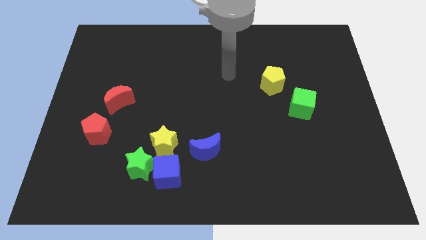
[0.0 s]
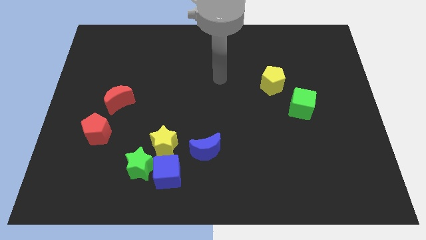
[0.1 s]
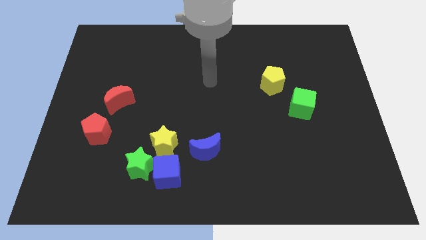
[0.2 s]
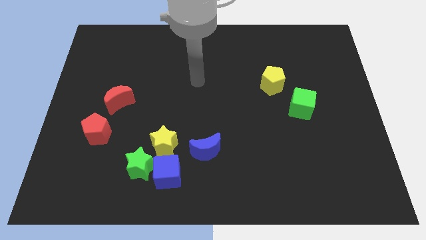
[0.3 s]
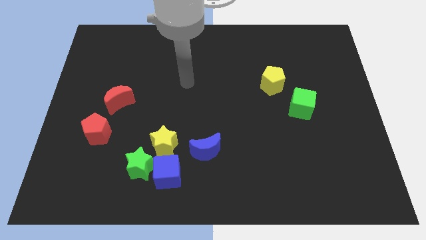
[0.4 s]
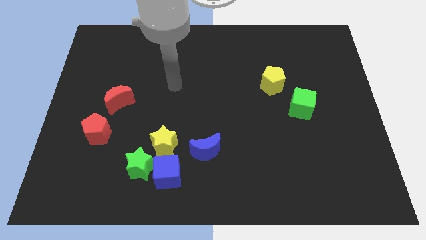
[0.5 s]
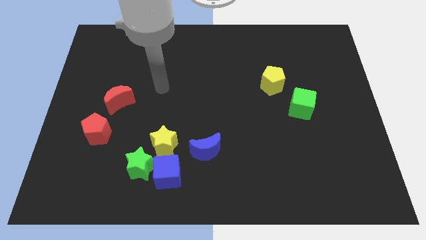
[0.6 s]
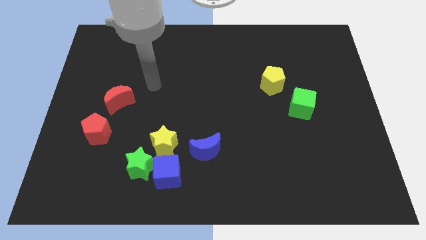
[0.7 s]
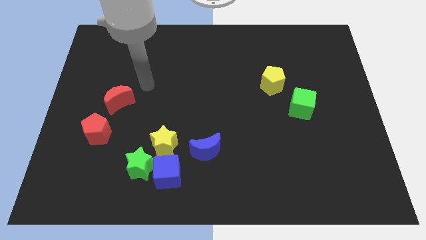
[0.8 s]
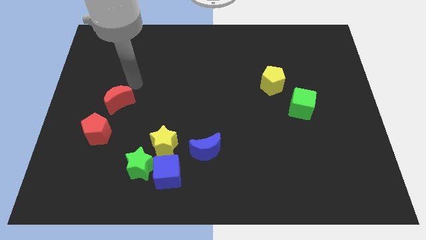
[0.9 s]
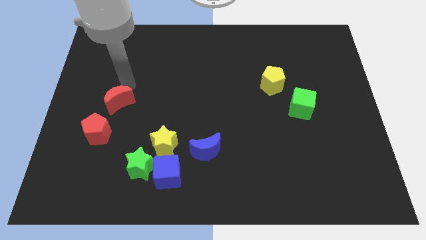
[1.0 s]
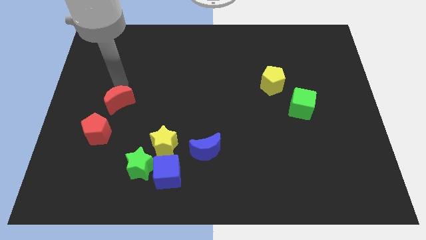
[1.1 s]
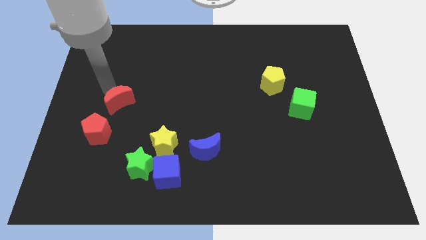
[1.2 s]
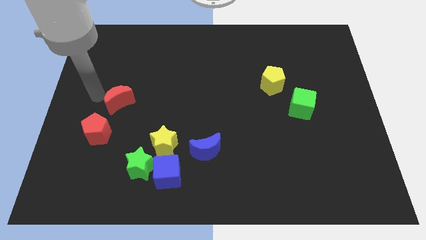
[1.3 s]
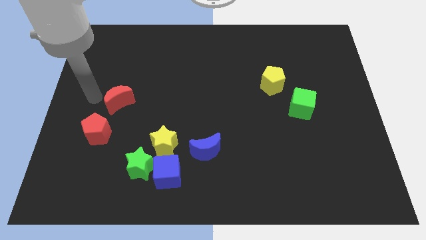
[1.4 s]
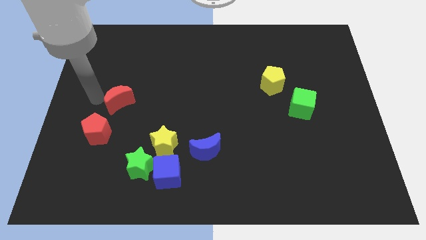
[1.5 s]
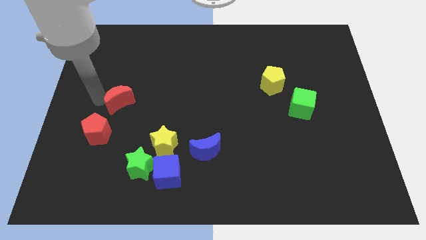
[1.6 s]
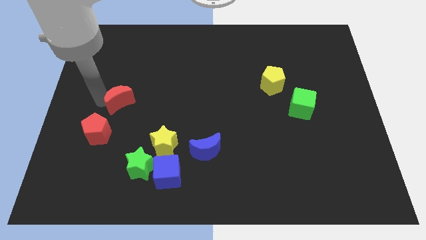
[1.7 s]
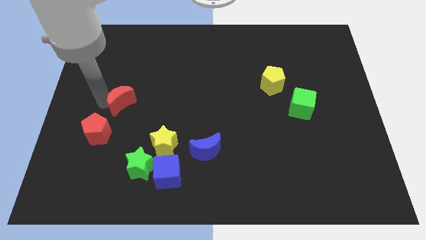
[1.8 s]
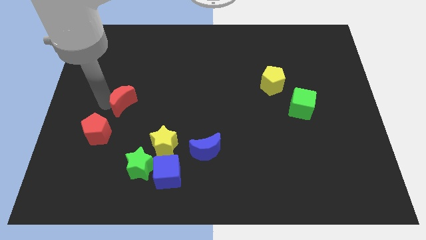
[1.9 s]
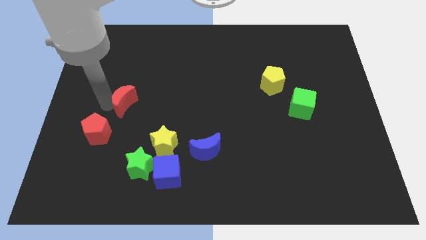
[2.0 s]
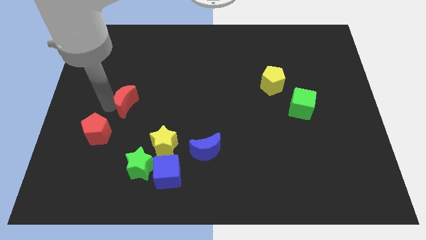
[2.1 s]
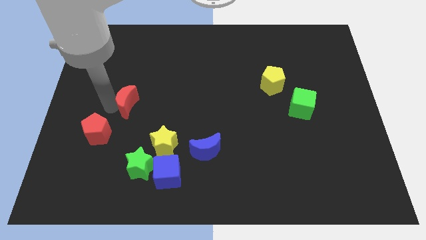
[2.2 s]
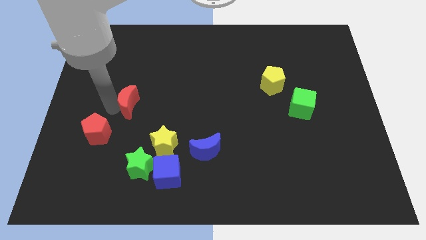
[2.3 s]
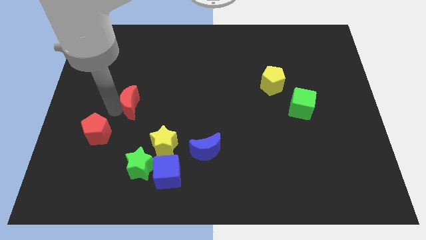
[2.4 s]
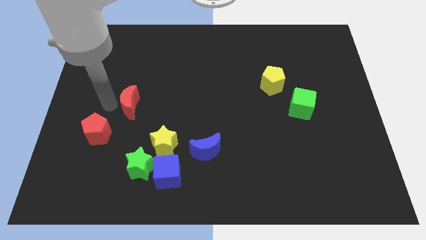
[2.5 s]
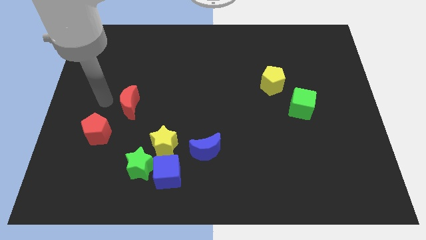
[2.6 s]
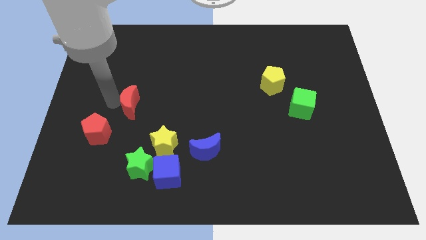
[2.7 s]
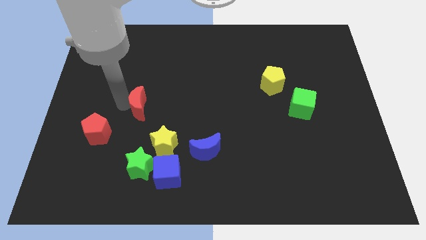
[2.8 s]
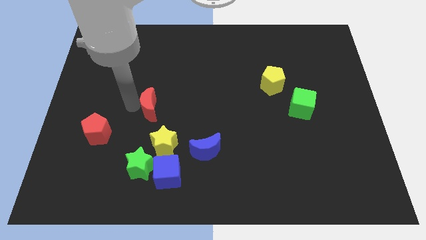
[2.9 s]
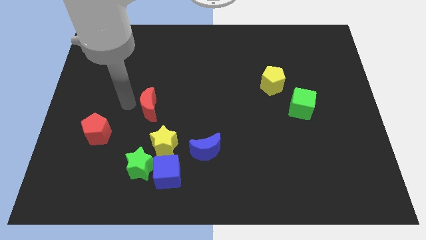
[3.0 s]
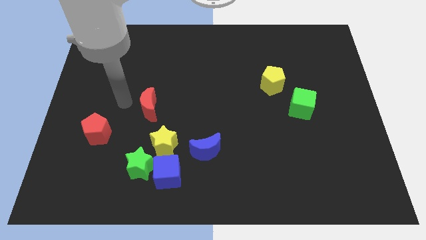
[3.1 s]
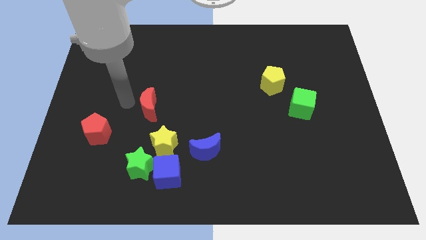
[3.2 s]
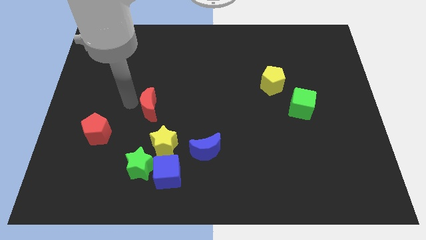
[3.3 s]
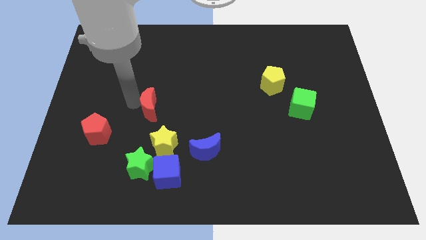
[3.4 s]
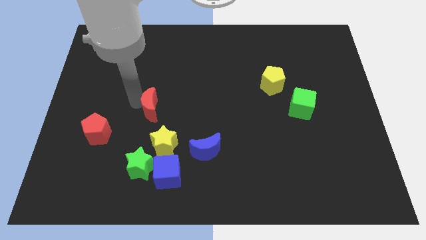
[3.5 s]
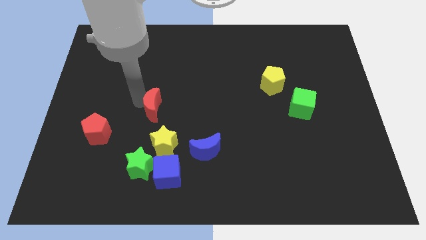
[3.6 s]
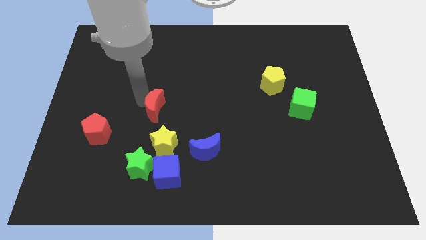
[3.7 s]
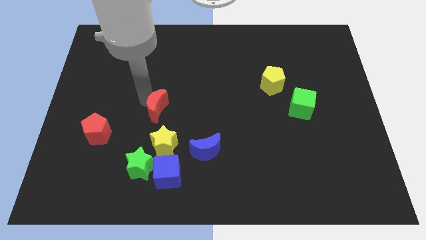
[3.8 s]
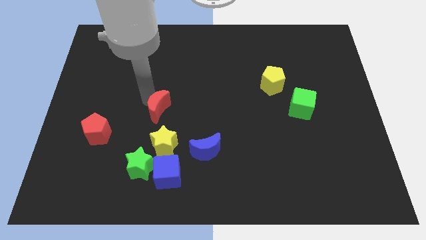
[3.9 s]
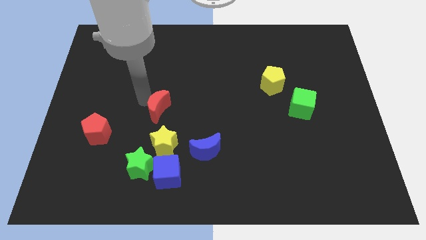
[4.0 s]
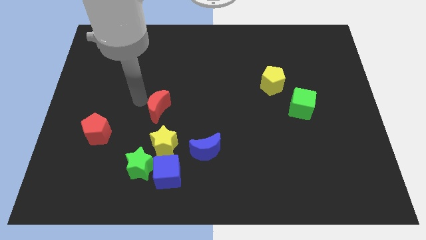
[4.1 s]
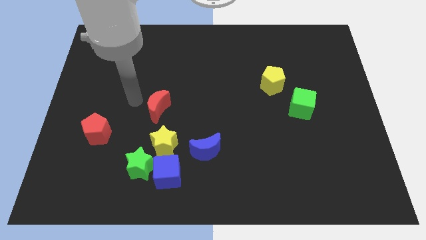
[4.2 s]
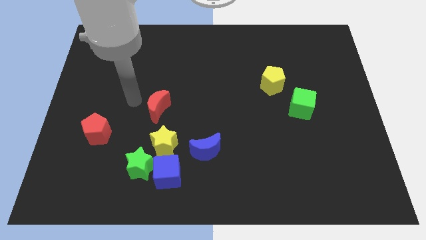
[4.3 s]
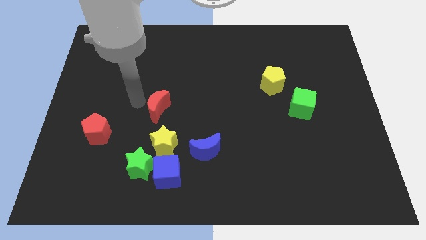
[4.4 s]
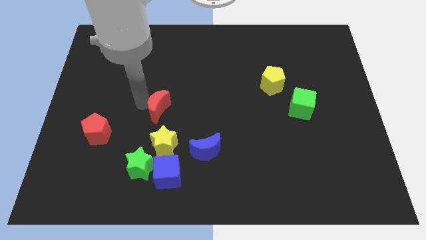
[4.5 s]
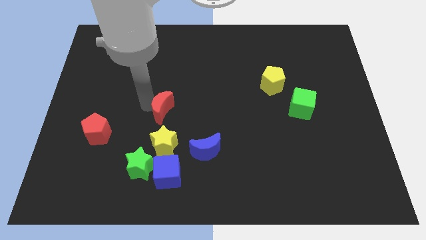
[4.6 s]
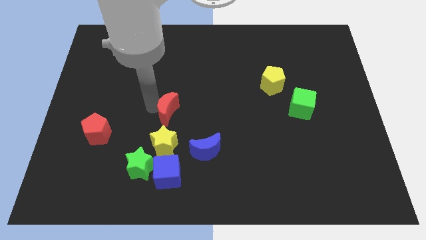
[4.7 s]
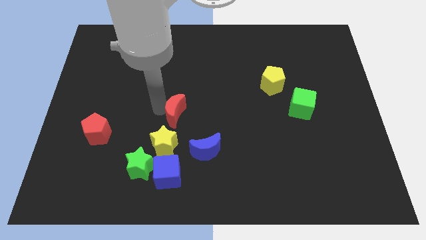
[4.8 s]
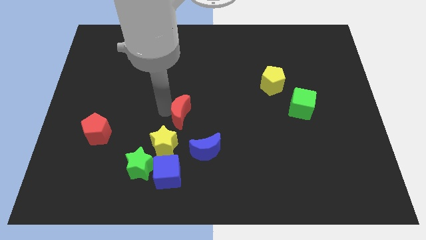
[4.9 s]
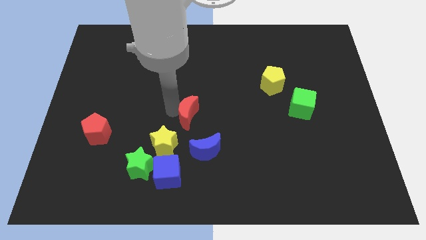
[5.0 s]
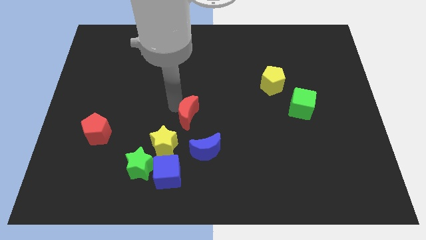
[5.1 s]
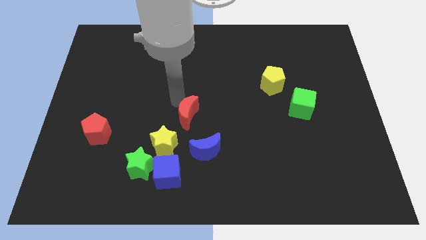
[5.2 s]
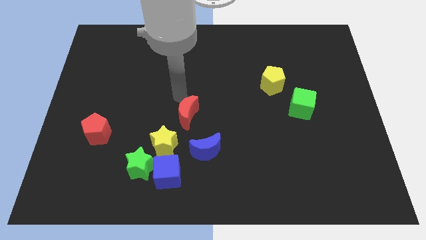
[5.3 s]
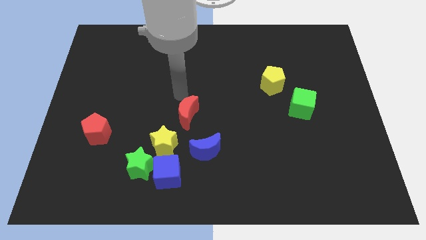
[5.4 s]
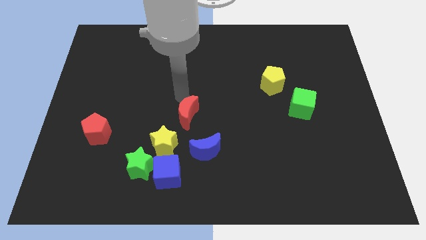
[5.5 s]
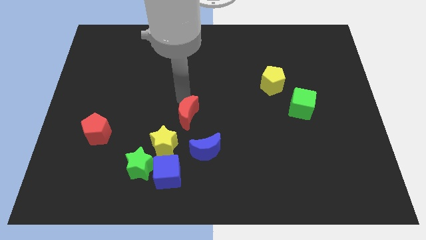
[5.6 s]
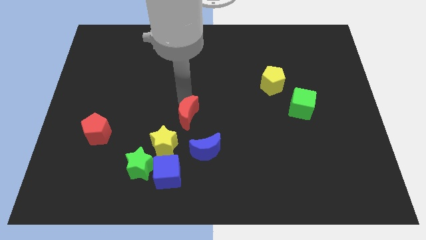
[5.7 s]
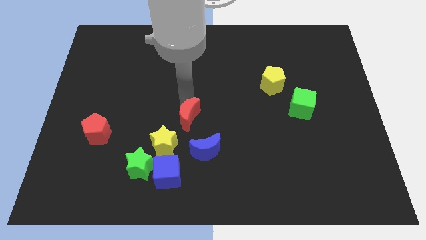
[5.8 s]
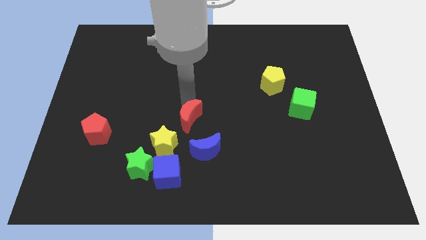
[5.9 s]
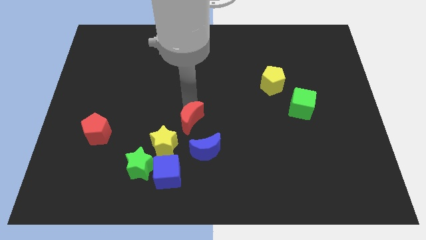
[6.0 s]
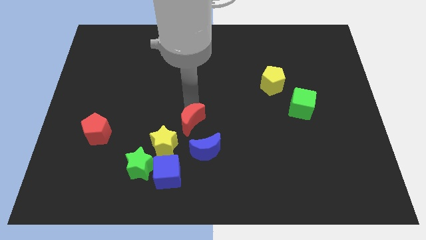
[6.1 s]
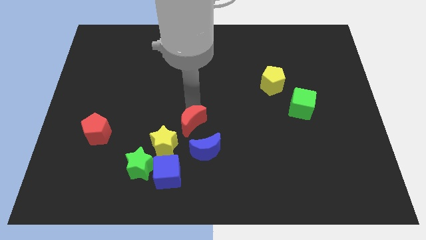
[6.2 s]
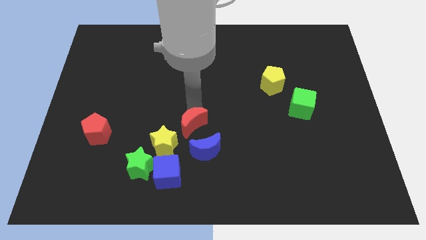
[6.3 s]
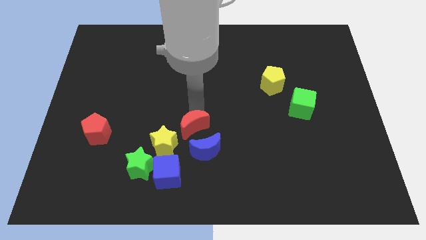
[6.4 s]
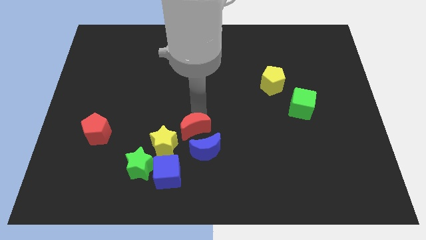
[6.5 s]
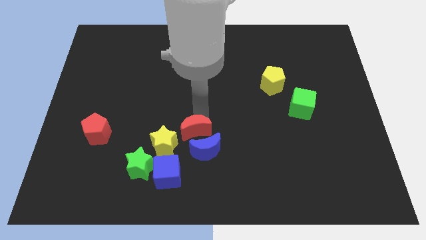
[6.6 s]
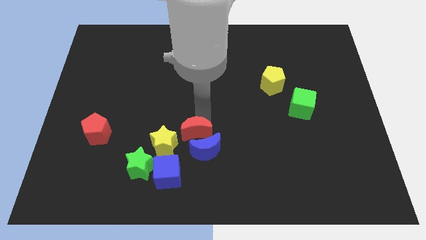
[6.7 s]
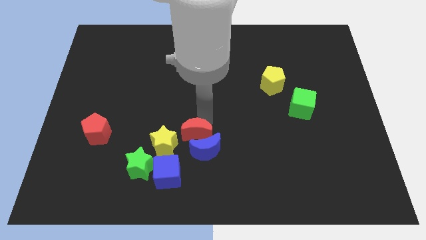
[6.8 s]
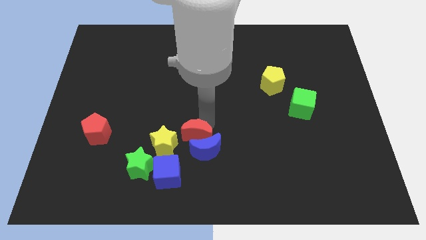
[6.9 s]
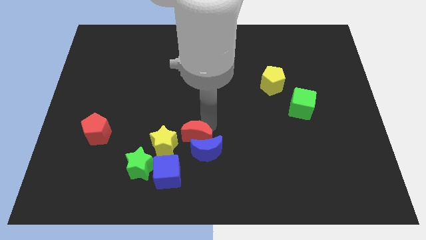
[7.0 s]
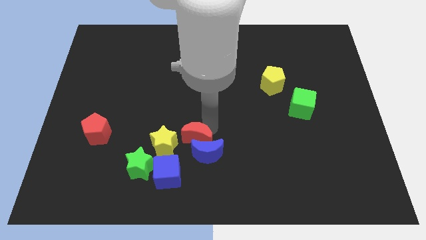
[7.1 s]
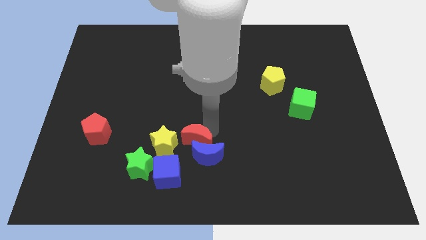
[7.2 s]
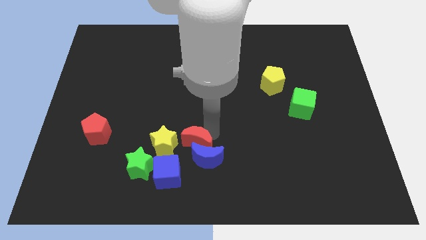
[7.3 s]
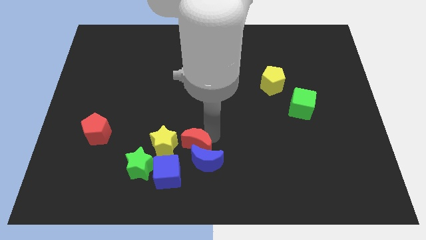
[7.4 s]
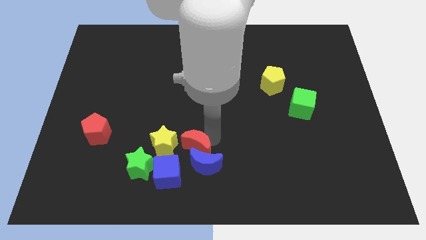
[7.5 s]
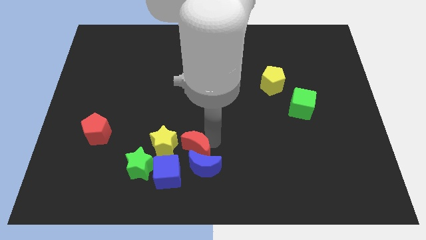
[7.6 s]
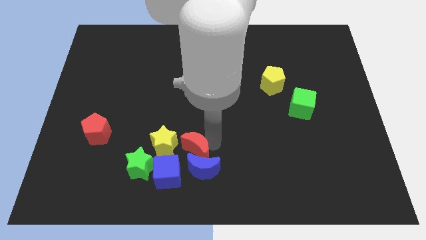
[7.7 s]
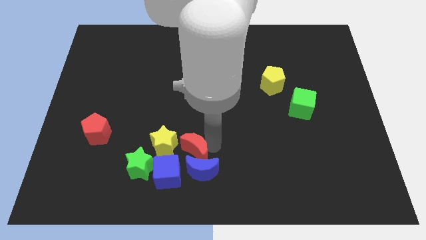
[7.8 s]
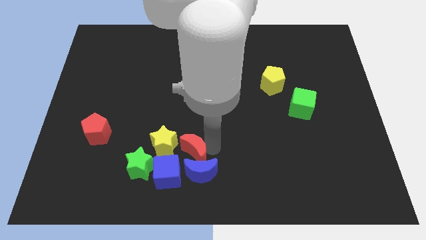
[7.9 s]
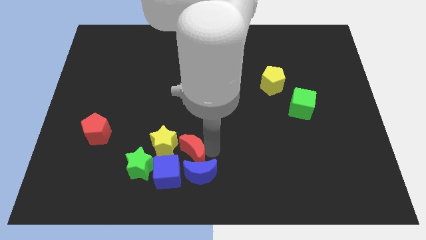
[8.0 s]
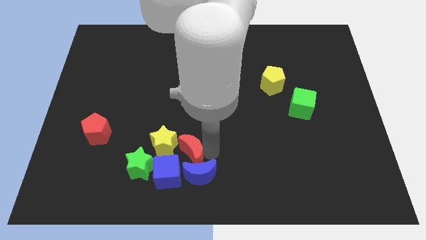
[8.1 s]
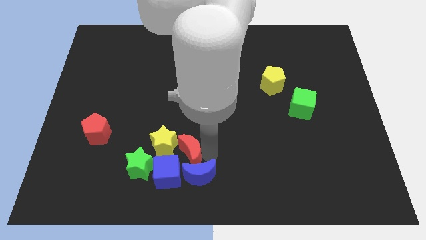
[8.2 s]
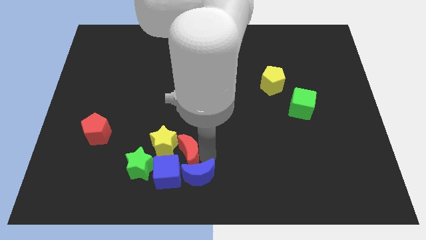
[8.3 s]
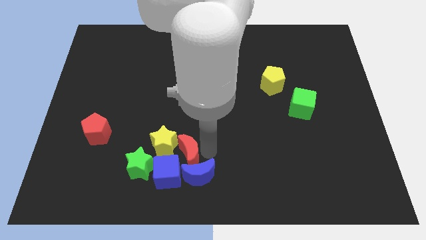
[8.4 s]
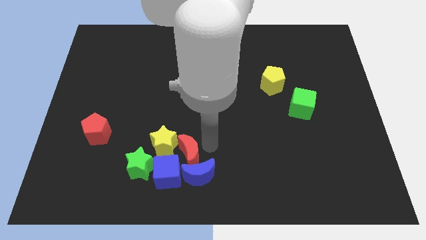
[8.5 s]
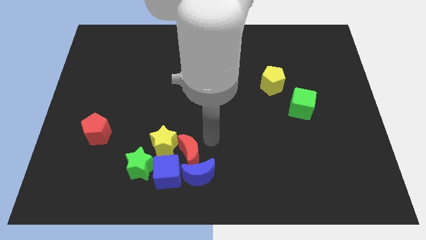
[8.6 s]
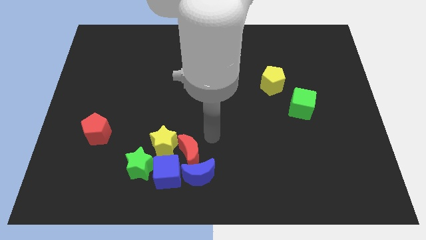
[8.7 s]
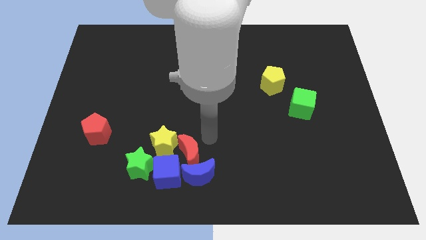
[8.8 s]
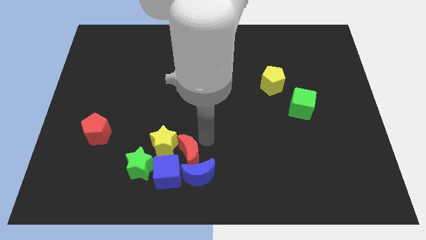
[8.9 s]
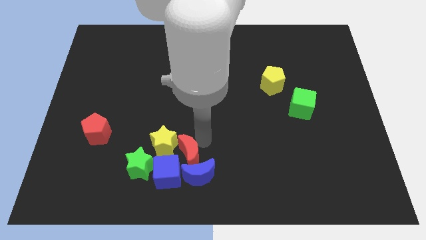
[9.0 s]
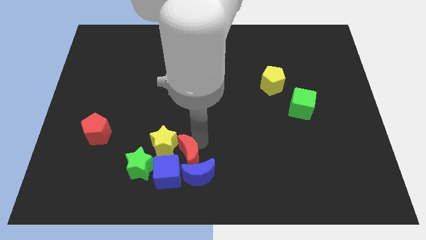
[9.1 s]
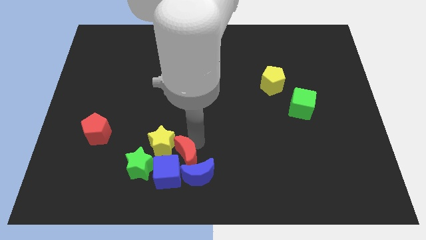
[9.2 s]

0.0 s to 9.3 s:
push the red moon next to the blue cube
